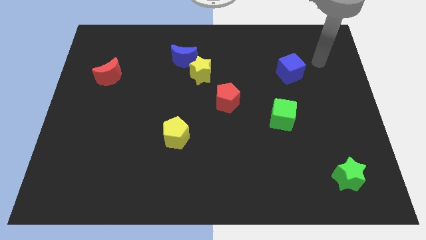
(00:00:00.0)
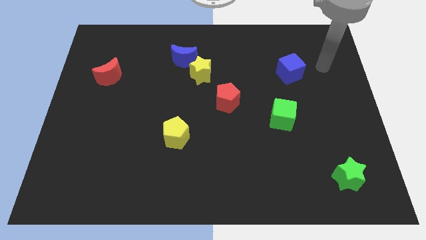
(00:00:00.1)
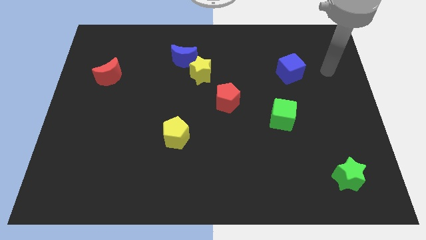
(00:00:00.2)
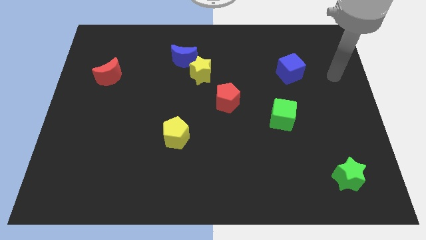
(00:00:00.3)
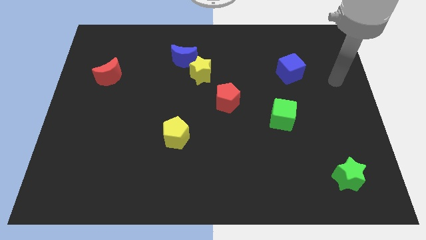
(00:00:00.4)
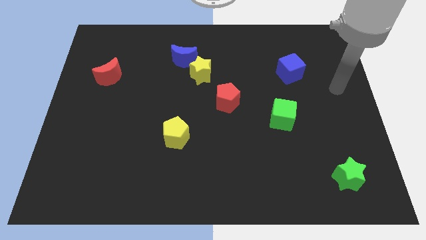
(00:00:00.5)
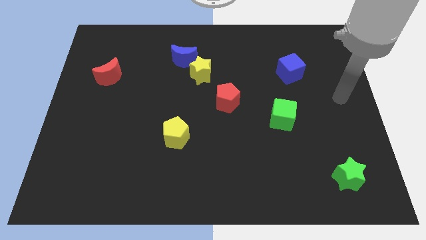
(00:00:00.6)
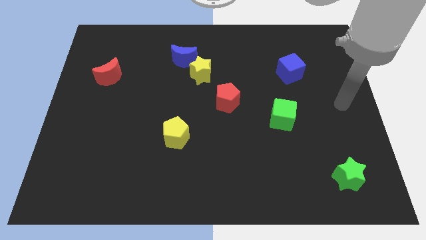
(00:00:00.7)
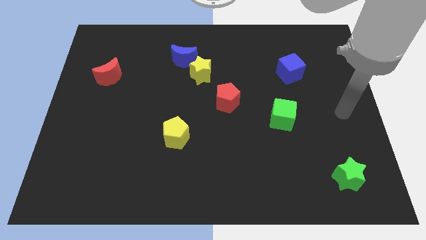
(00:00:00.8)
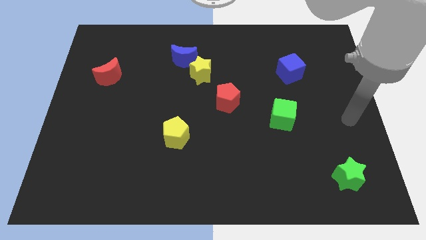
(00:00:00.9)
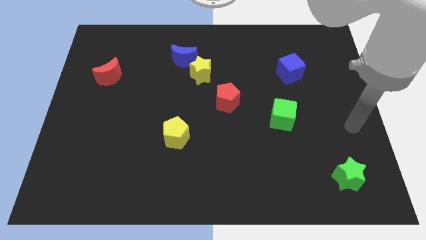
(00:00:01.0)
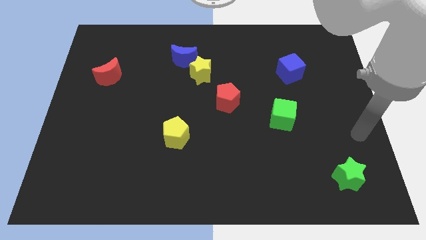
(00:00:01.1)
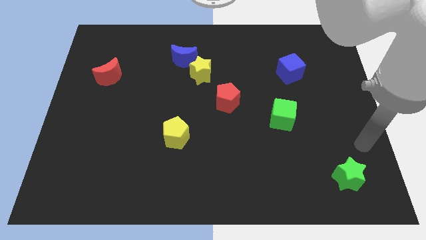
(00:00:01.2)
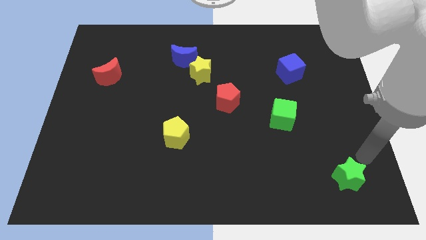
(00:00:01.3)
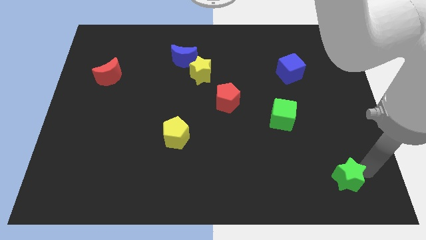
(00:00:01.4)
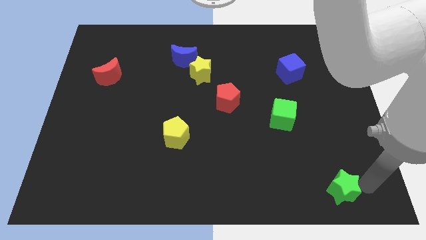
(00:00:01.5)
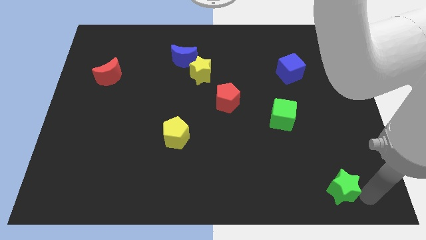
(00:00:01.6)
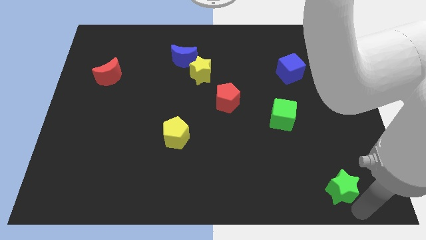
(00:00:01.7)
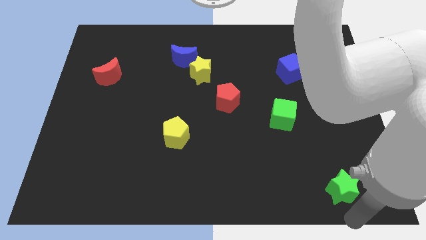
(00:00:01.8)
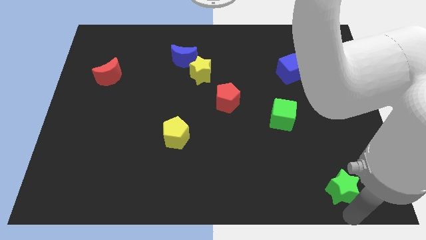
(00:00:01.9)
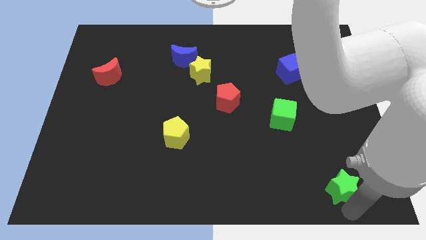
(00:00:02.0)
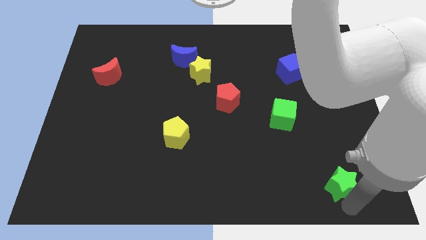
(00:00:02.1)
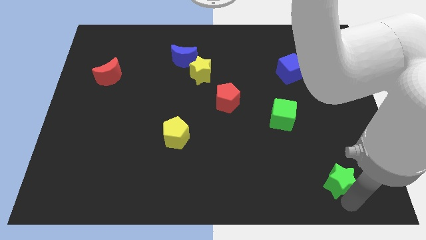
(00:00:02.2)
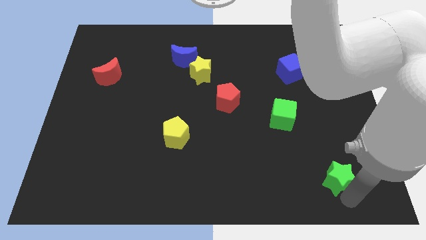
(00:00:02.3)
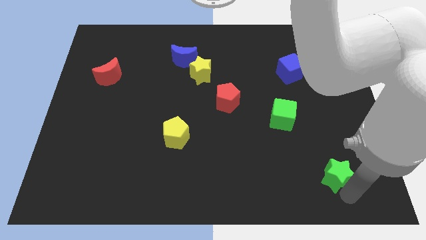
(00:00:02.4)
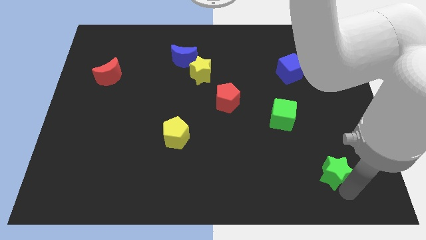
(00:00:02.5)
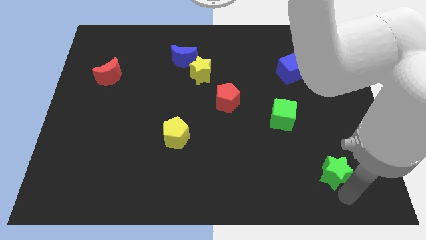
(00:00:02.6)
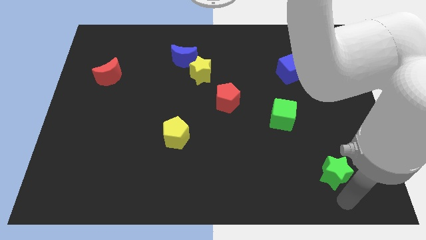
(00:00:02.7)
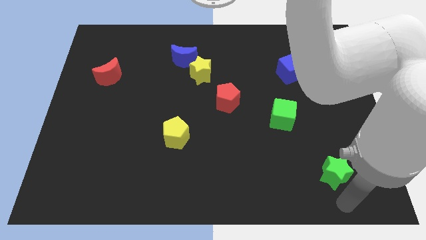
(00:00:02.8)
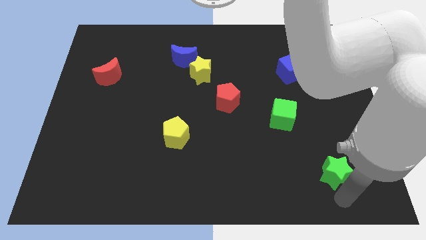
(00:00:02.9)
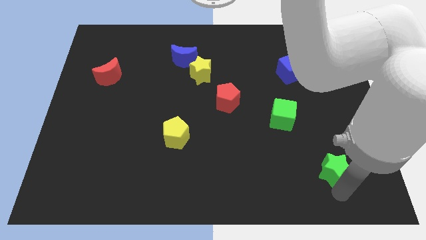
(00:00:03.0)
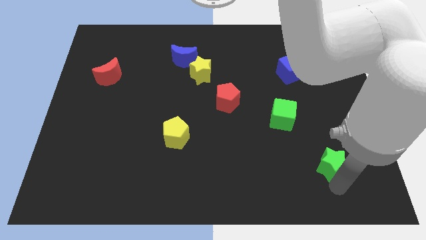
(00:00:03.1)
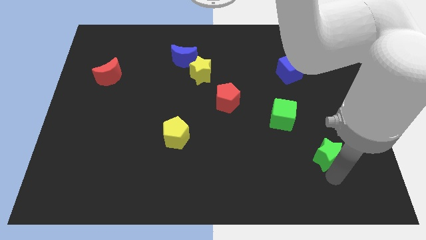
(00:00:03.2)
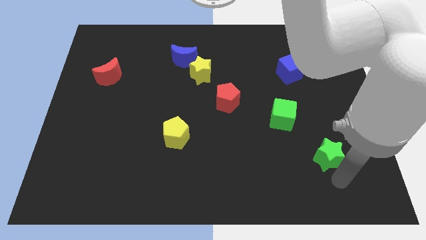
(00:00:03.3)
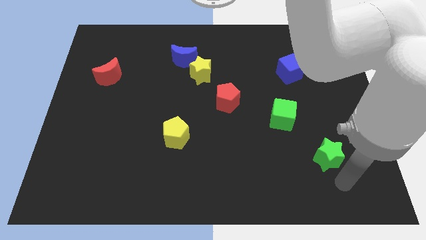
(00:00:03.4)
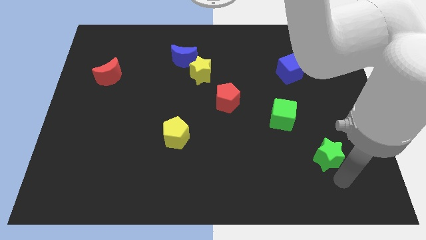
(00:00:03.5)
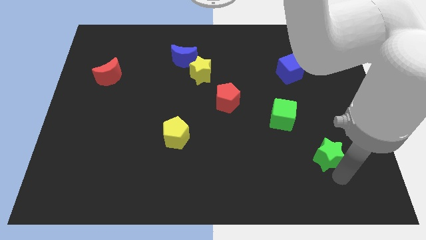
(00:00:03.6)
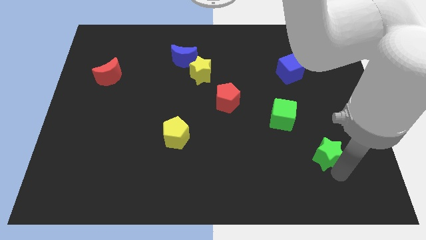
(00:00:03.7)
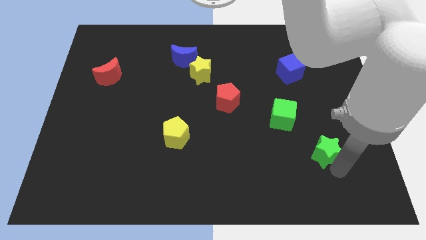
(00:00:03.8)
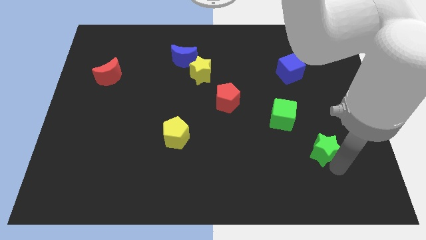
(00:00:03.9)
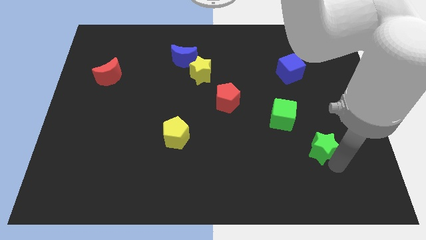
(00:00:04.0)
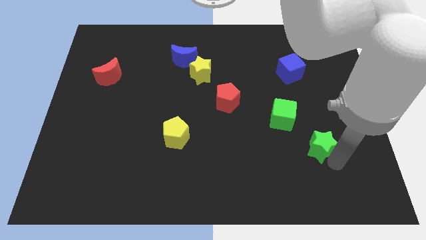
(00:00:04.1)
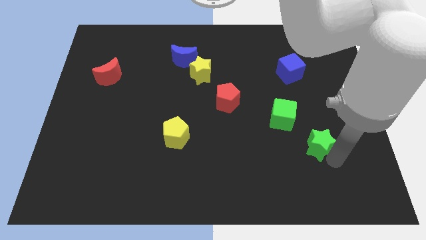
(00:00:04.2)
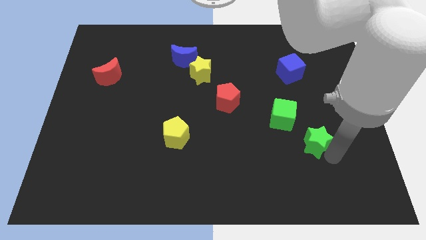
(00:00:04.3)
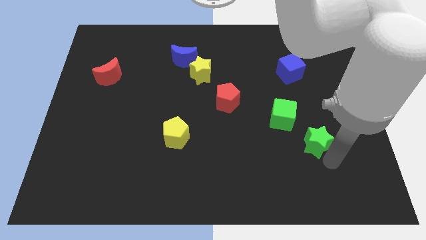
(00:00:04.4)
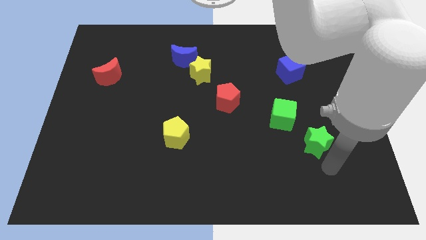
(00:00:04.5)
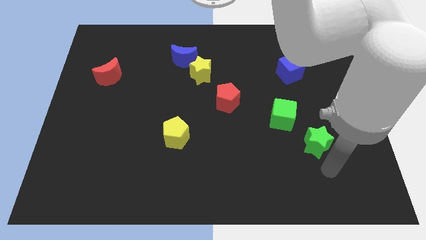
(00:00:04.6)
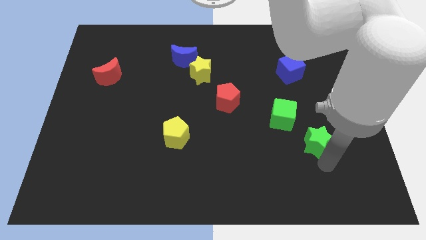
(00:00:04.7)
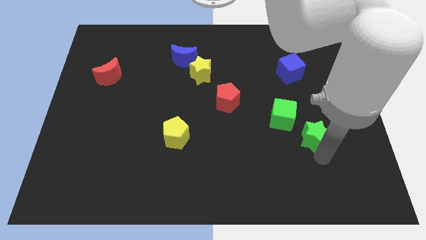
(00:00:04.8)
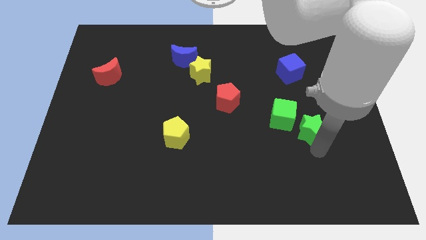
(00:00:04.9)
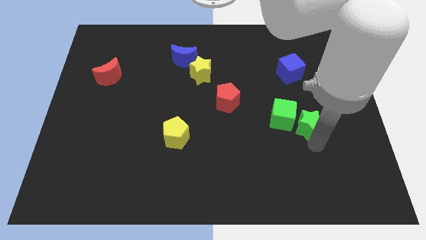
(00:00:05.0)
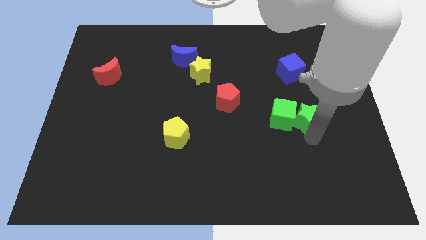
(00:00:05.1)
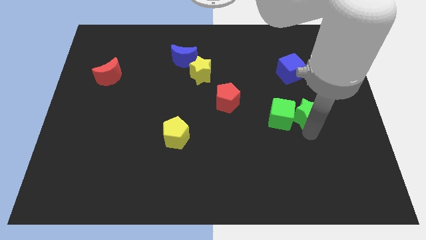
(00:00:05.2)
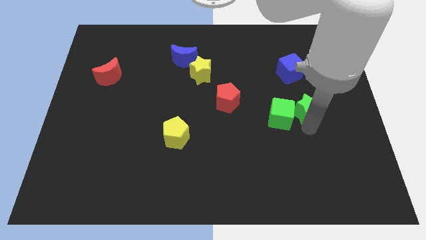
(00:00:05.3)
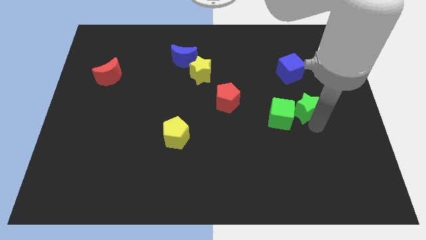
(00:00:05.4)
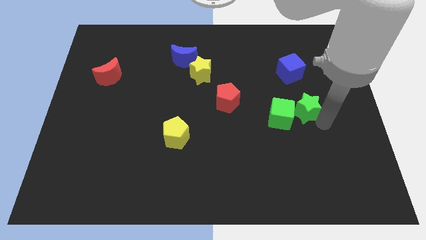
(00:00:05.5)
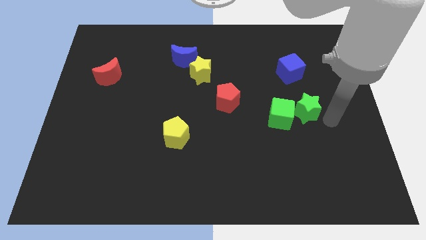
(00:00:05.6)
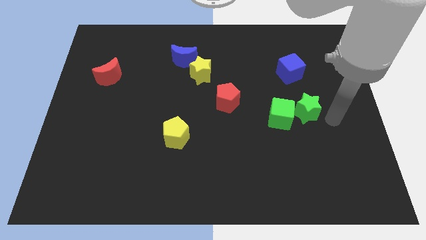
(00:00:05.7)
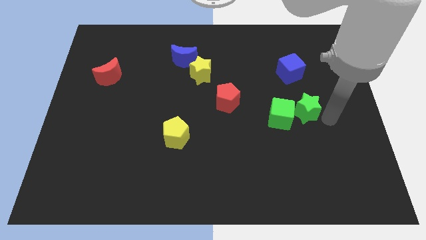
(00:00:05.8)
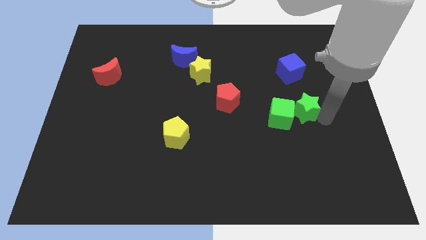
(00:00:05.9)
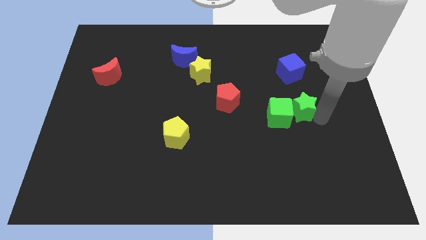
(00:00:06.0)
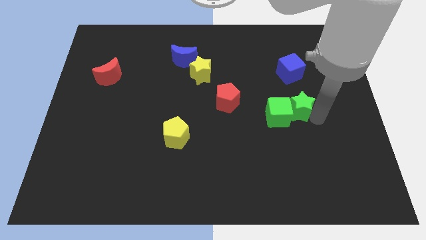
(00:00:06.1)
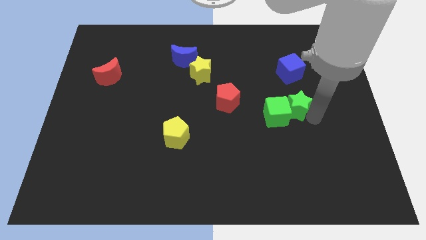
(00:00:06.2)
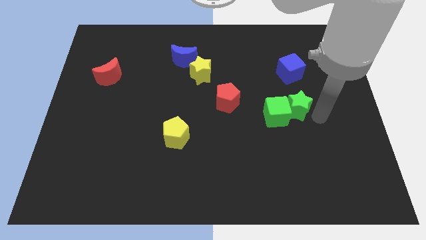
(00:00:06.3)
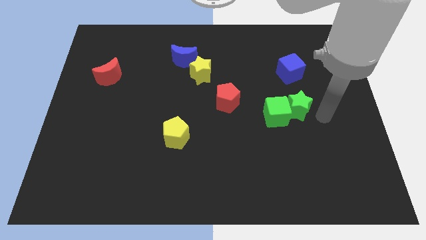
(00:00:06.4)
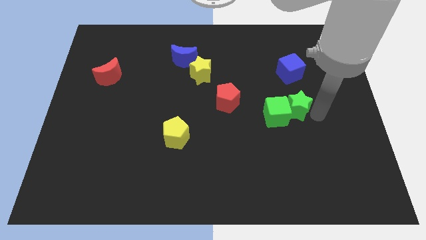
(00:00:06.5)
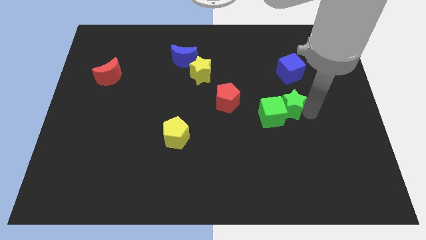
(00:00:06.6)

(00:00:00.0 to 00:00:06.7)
slide the green star right of the red pentagon
